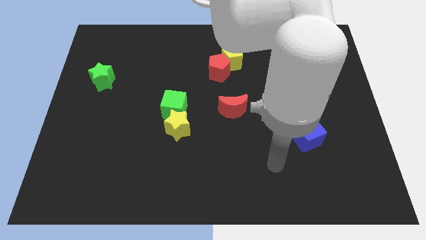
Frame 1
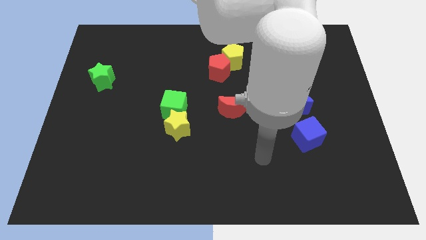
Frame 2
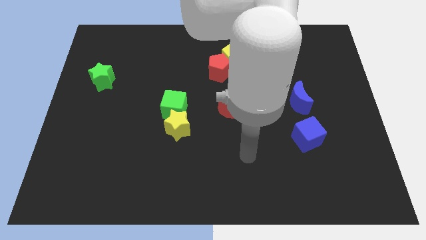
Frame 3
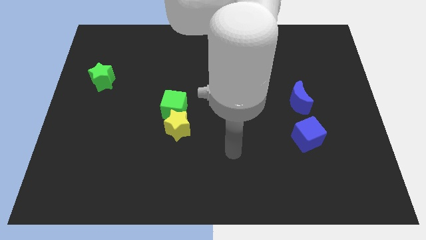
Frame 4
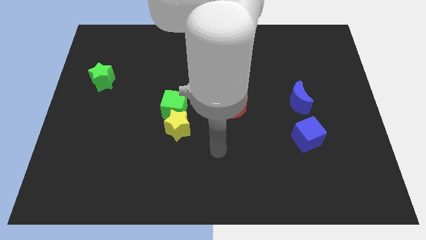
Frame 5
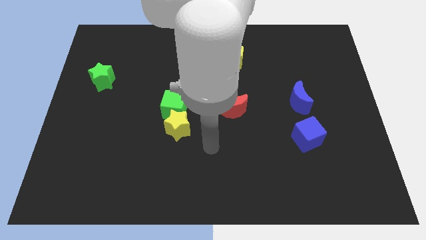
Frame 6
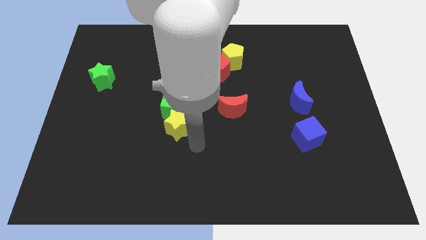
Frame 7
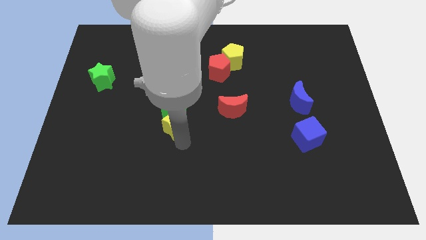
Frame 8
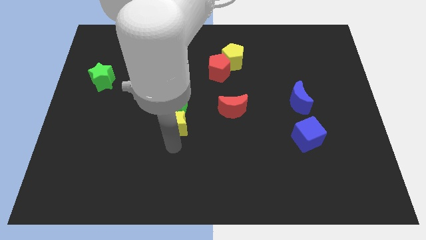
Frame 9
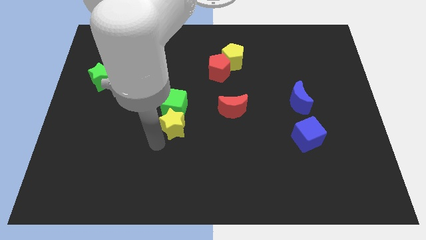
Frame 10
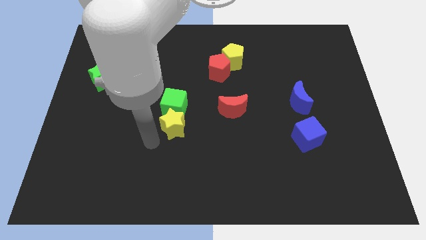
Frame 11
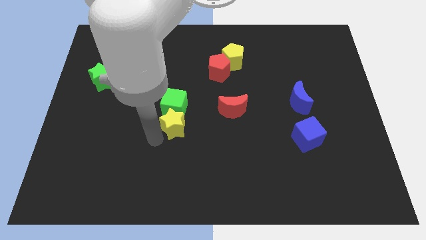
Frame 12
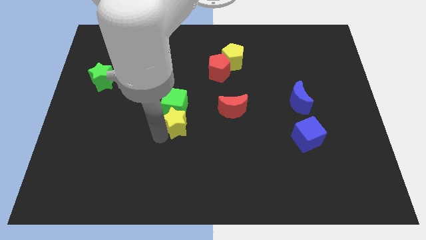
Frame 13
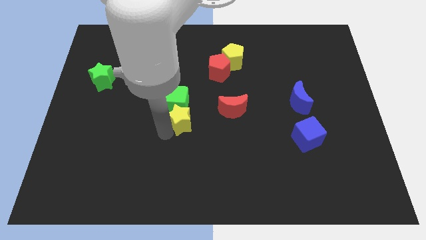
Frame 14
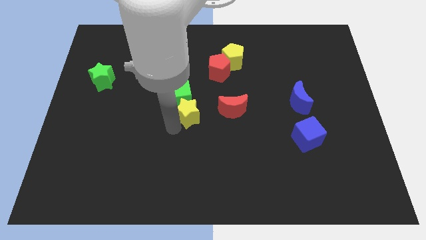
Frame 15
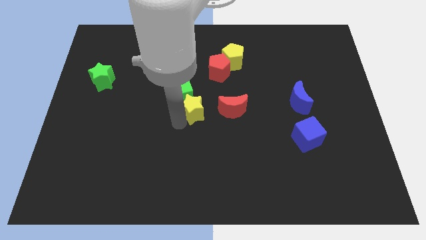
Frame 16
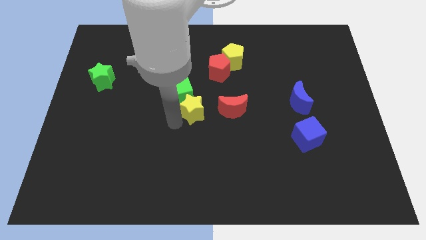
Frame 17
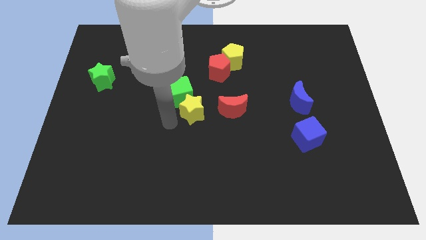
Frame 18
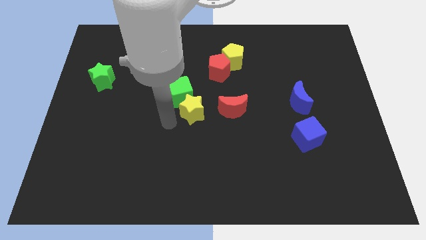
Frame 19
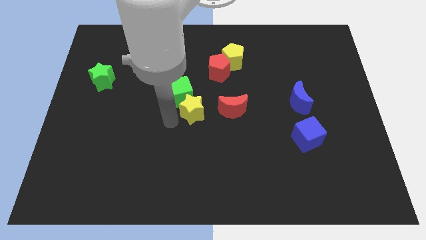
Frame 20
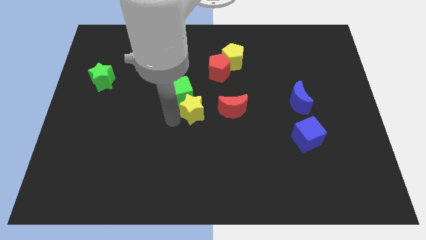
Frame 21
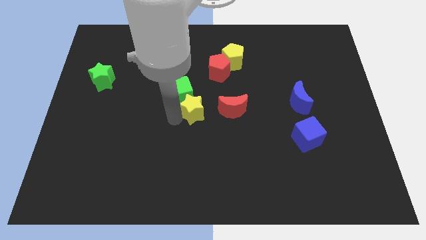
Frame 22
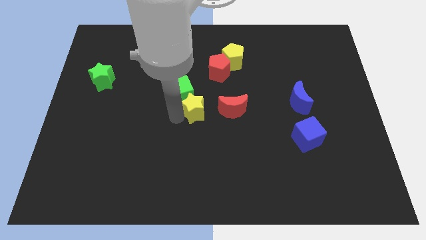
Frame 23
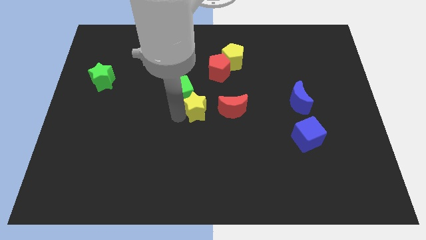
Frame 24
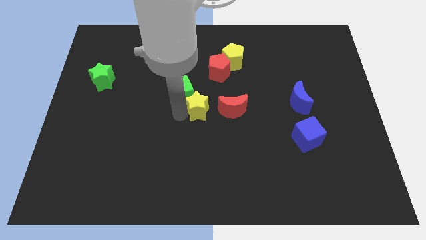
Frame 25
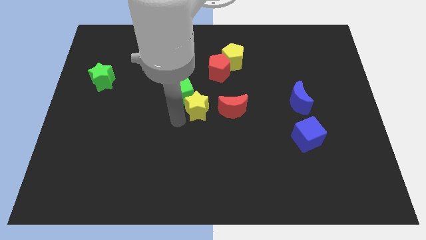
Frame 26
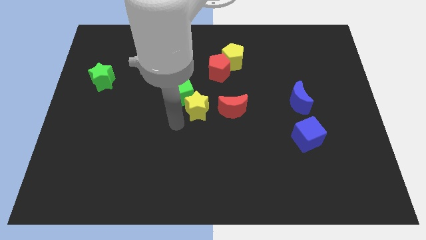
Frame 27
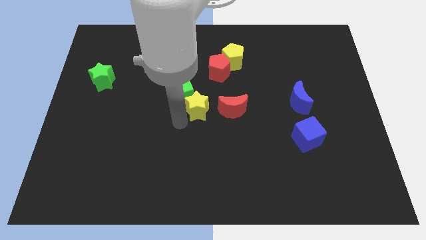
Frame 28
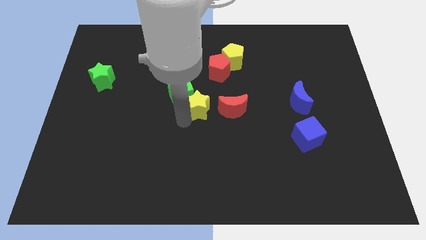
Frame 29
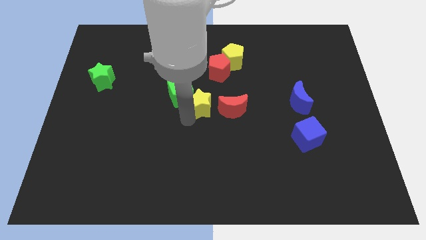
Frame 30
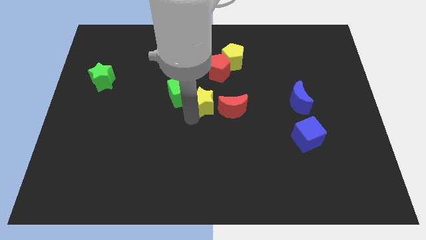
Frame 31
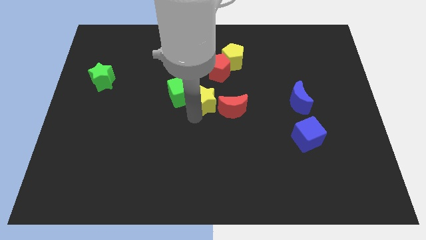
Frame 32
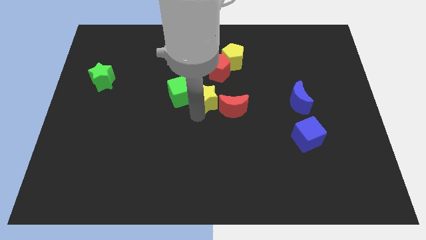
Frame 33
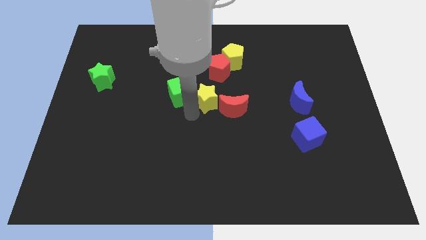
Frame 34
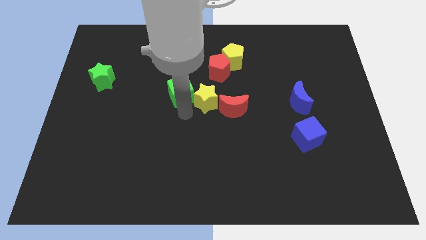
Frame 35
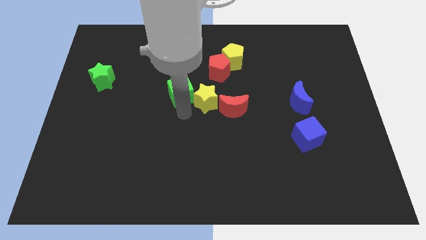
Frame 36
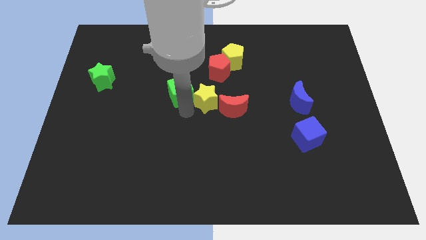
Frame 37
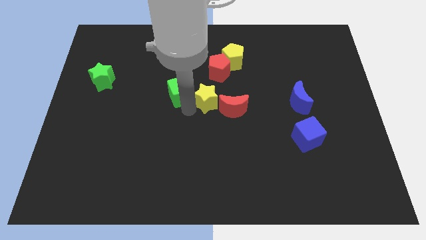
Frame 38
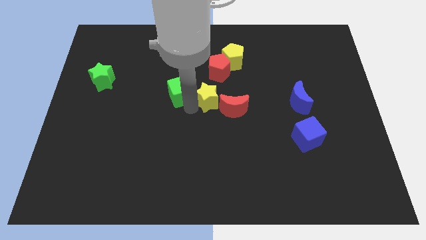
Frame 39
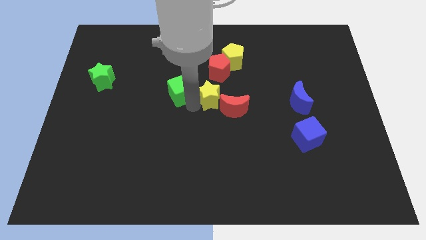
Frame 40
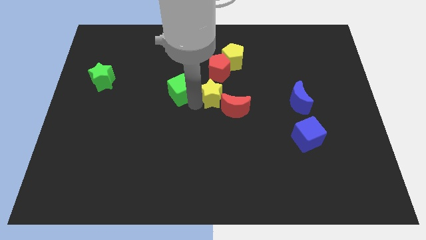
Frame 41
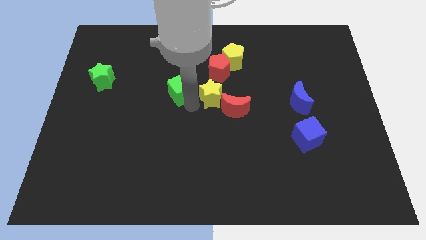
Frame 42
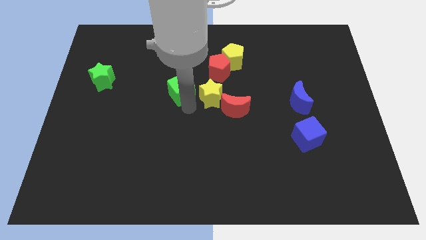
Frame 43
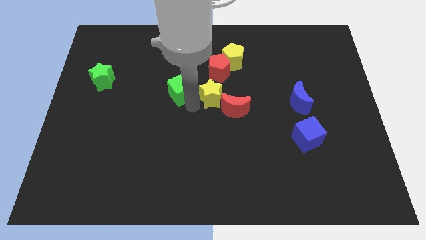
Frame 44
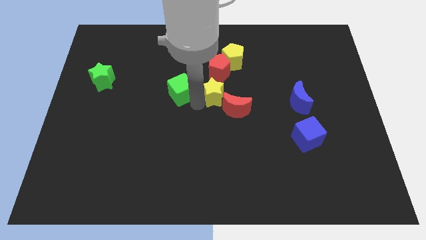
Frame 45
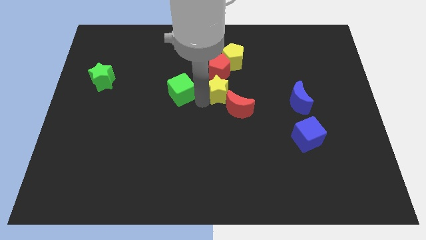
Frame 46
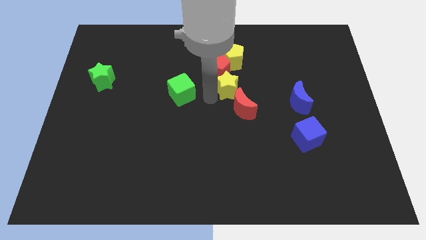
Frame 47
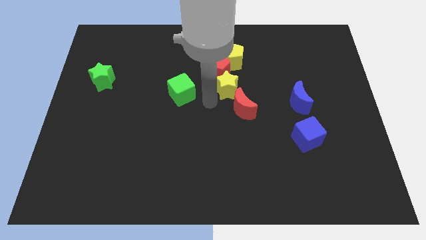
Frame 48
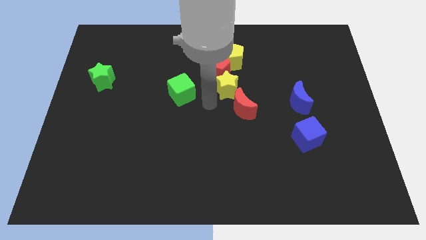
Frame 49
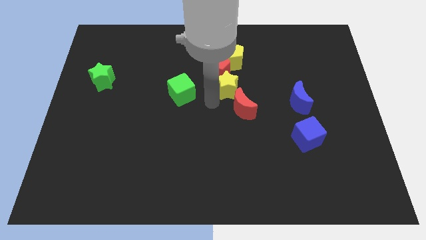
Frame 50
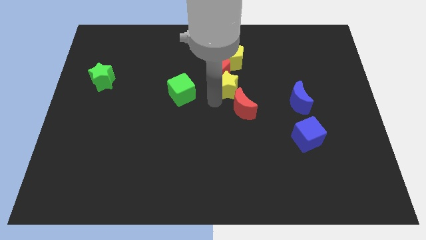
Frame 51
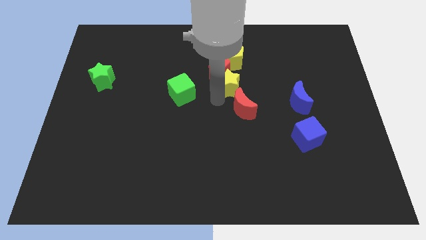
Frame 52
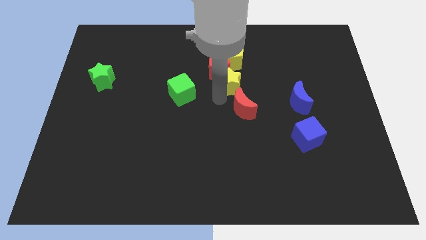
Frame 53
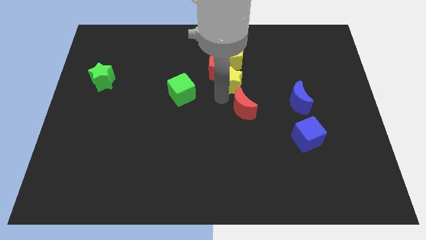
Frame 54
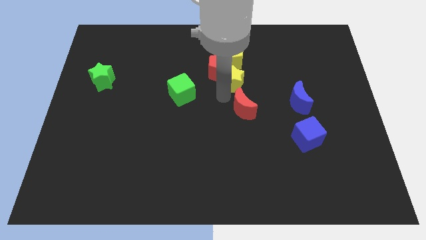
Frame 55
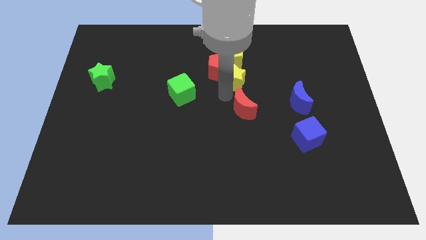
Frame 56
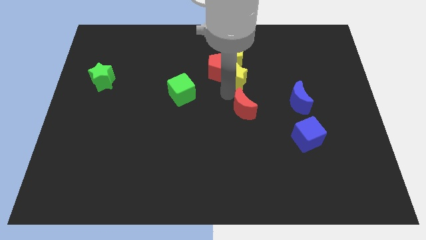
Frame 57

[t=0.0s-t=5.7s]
slide the yellow star up and to the right

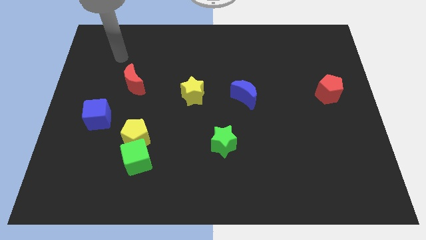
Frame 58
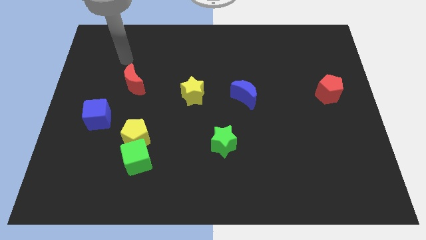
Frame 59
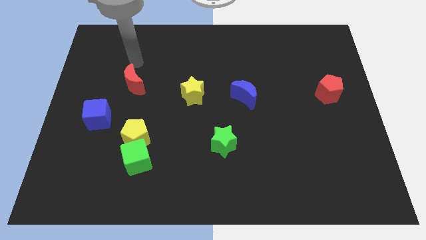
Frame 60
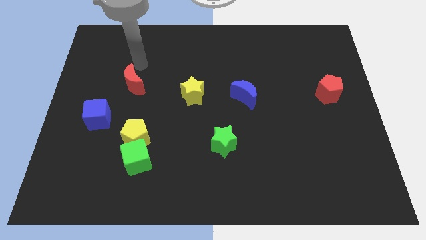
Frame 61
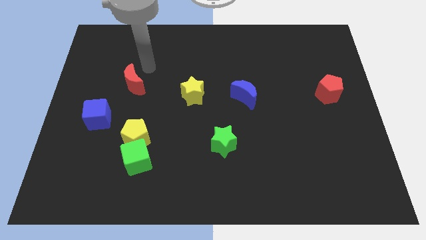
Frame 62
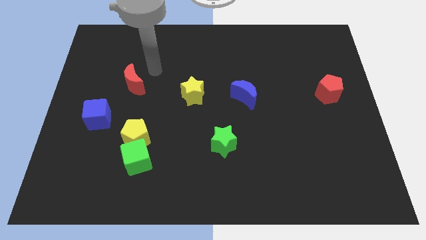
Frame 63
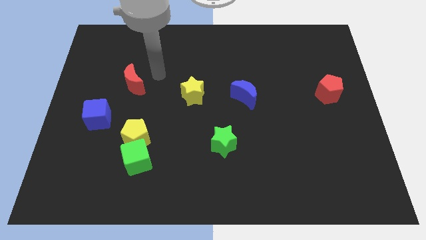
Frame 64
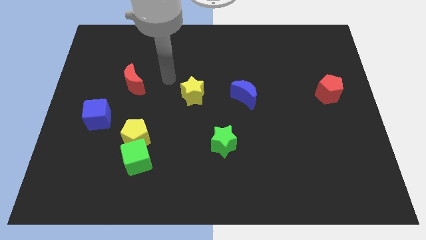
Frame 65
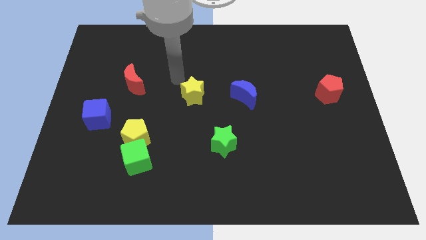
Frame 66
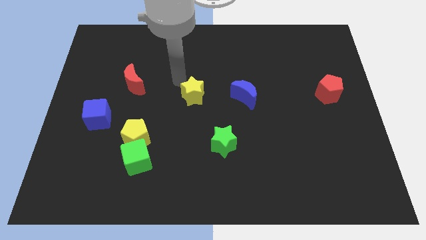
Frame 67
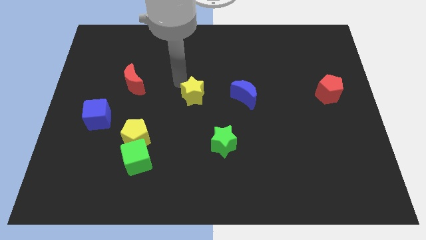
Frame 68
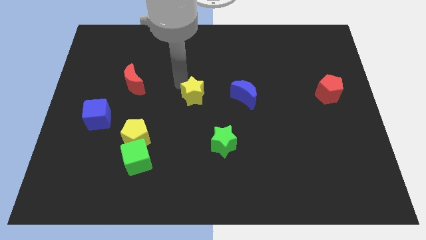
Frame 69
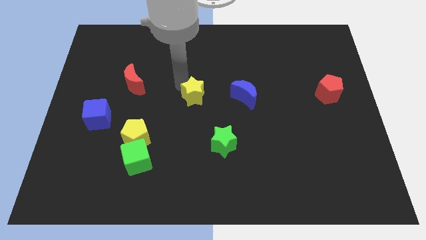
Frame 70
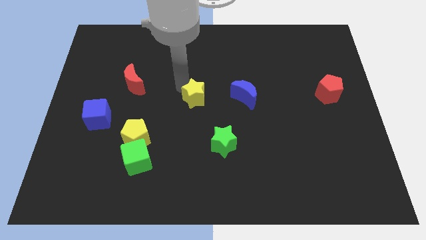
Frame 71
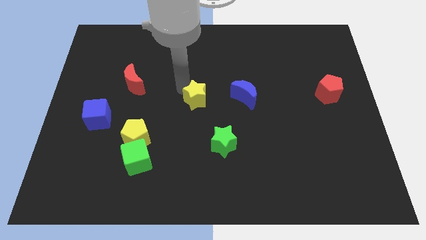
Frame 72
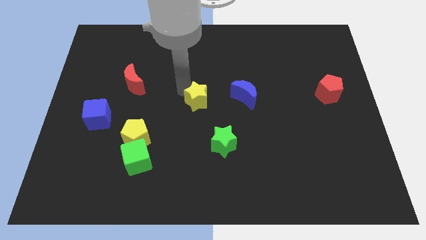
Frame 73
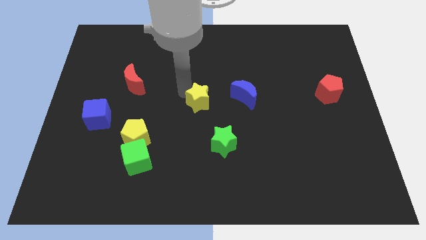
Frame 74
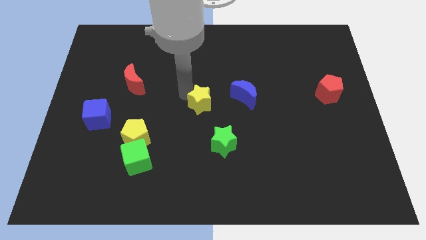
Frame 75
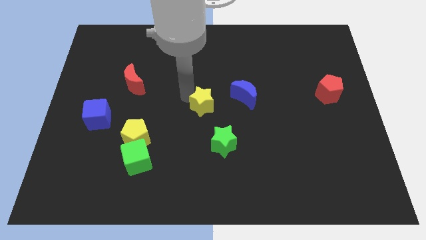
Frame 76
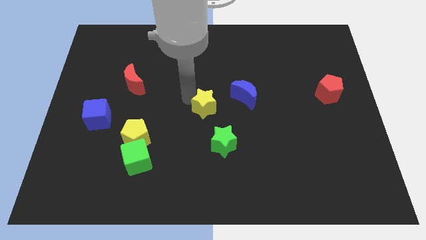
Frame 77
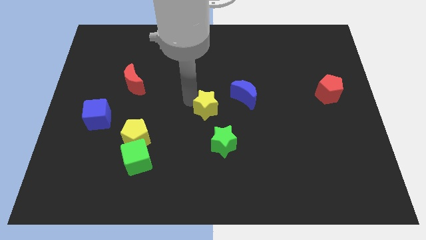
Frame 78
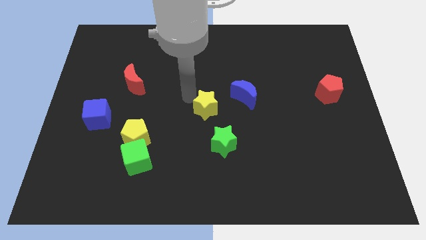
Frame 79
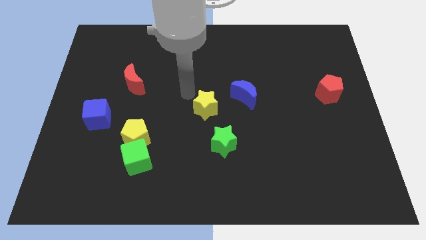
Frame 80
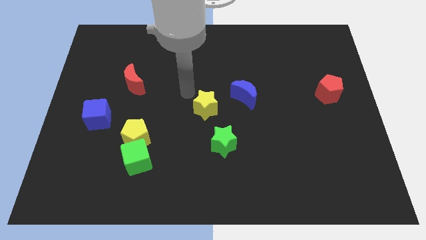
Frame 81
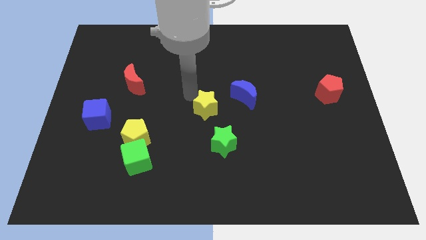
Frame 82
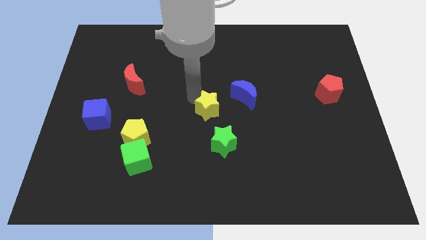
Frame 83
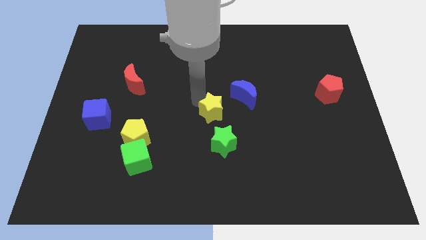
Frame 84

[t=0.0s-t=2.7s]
push the yellow star a little down and to the right
